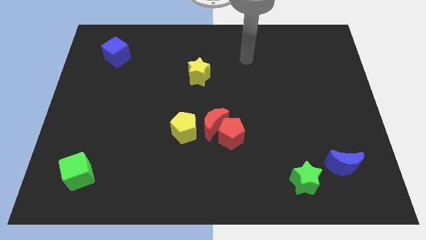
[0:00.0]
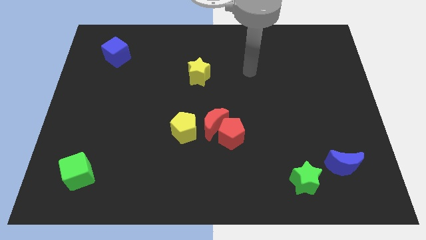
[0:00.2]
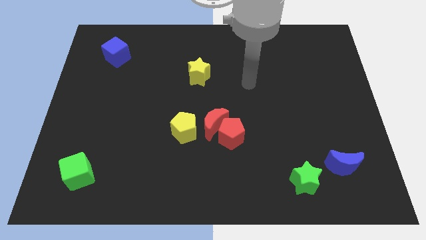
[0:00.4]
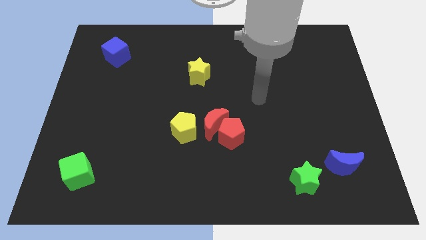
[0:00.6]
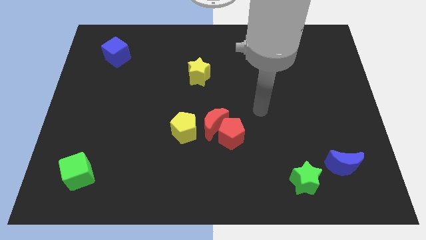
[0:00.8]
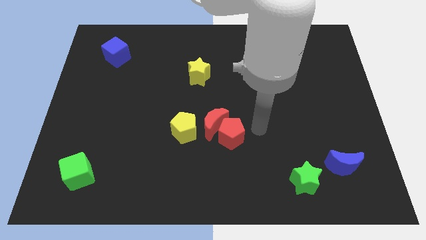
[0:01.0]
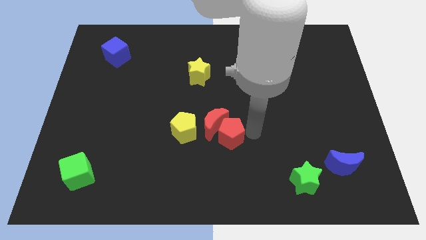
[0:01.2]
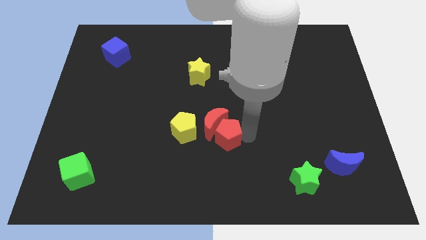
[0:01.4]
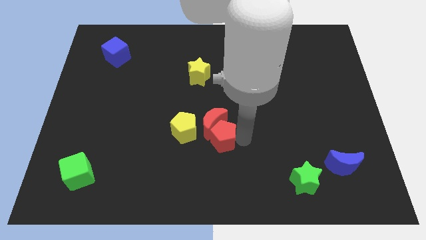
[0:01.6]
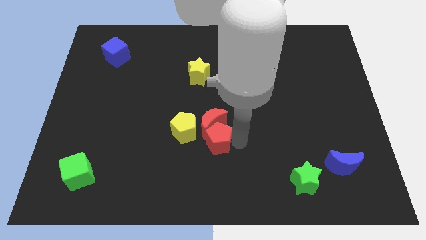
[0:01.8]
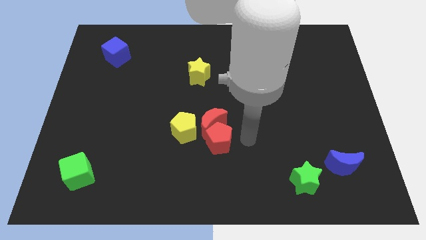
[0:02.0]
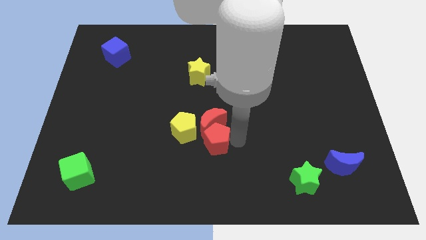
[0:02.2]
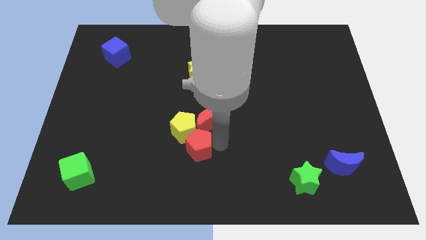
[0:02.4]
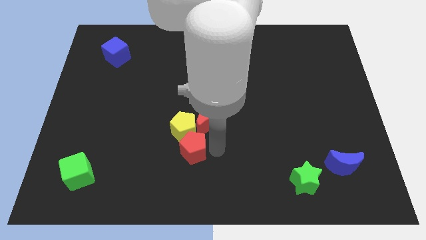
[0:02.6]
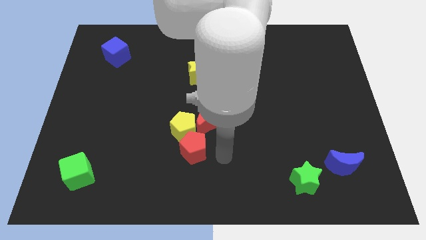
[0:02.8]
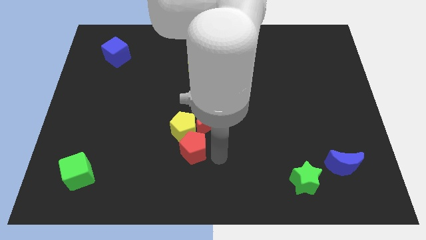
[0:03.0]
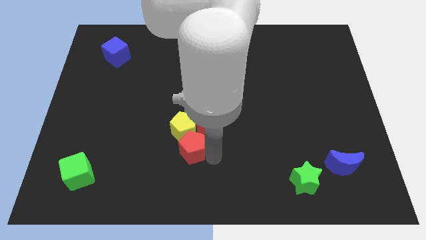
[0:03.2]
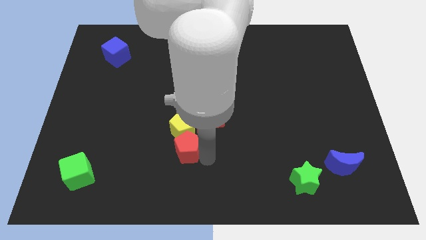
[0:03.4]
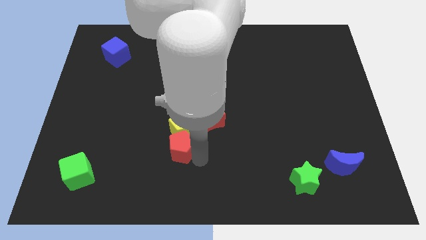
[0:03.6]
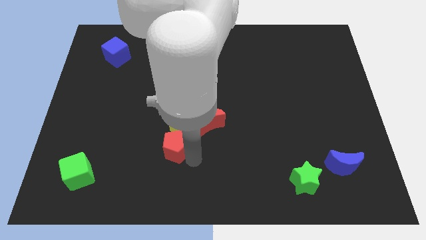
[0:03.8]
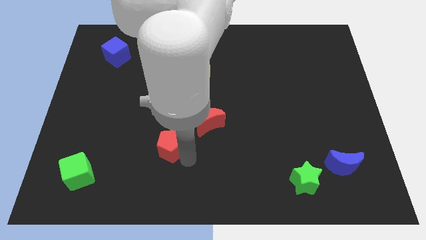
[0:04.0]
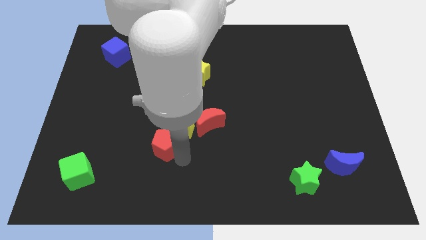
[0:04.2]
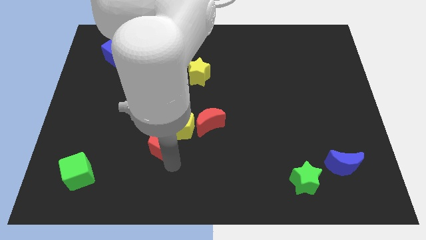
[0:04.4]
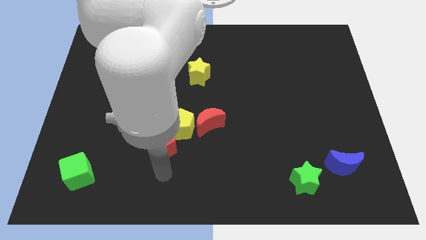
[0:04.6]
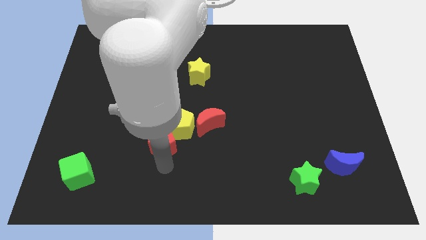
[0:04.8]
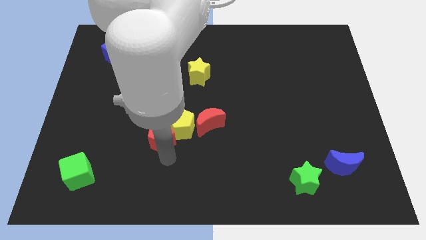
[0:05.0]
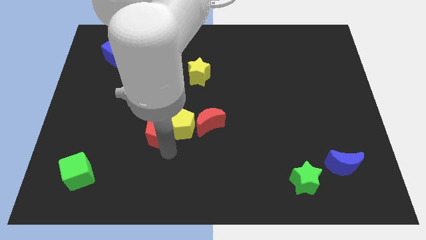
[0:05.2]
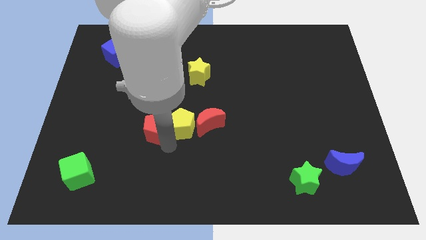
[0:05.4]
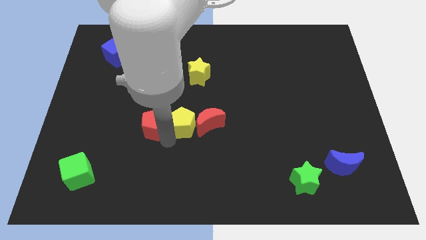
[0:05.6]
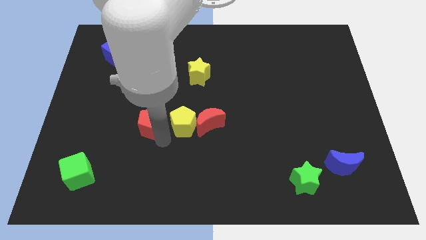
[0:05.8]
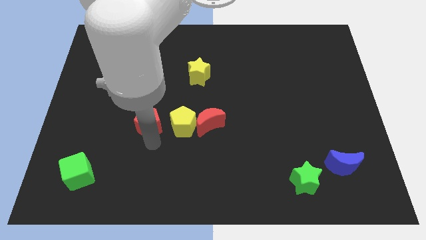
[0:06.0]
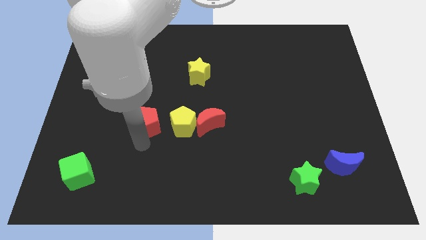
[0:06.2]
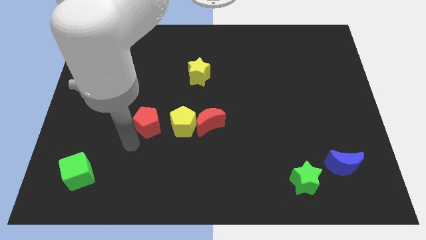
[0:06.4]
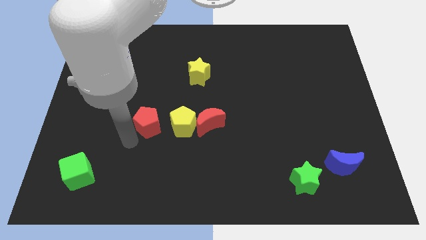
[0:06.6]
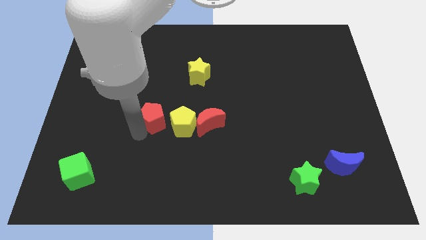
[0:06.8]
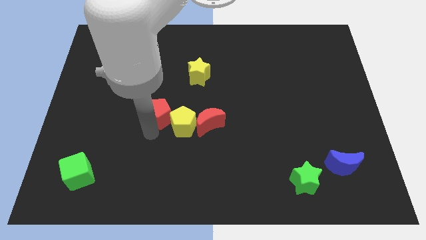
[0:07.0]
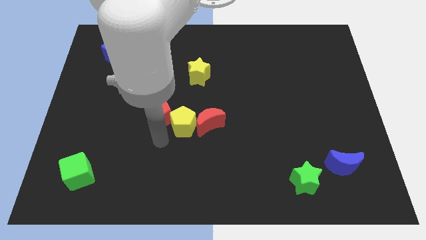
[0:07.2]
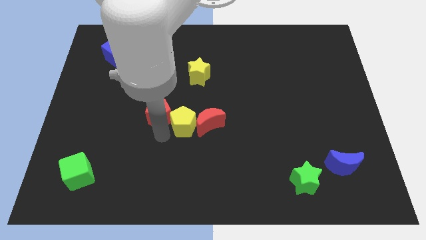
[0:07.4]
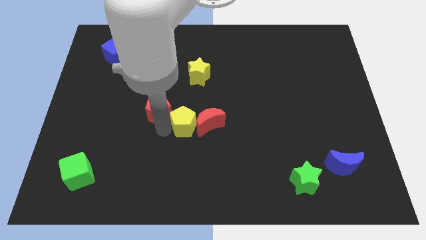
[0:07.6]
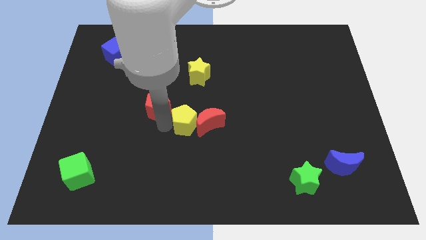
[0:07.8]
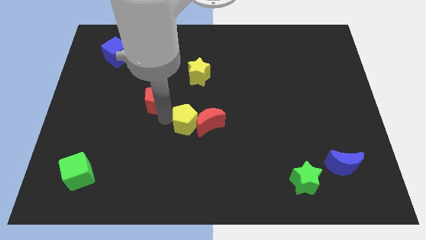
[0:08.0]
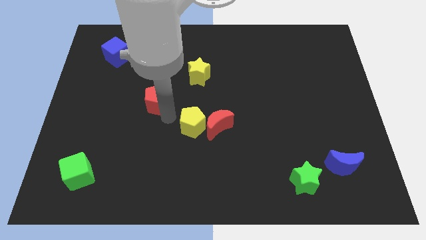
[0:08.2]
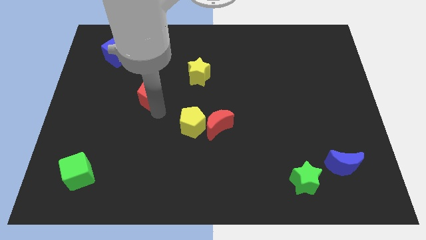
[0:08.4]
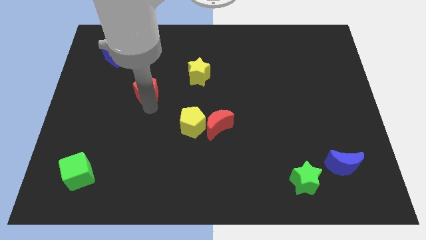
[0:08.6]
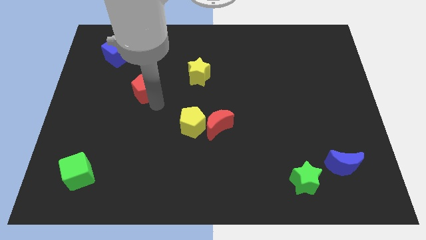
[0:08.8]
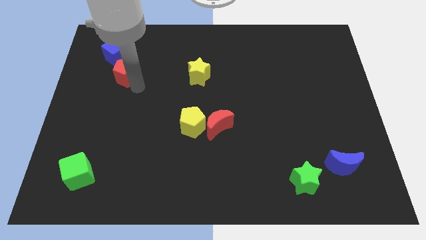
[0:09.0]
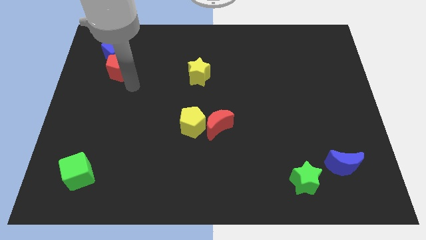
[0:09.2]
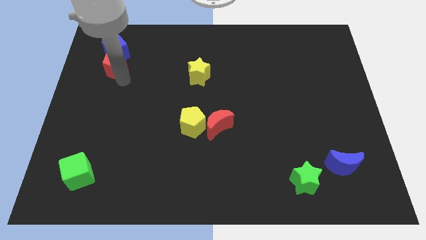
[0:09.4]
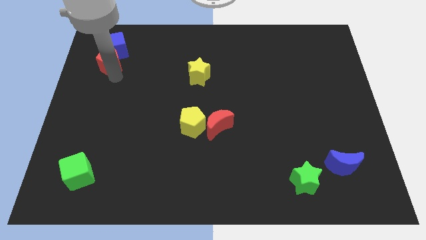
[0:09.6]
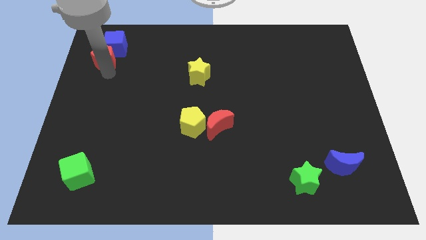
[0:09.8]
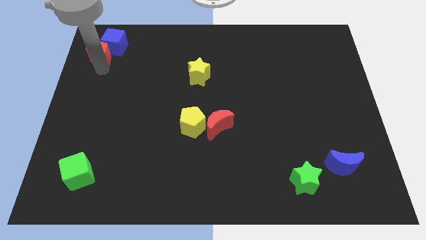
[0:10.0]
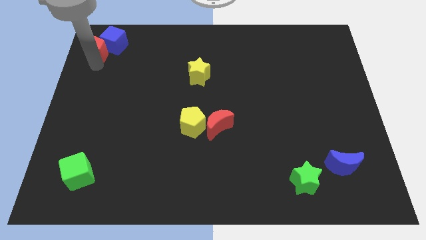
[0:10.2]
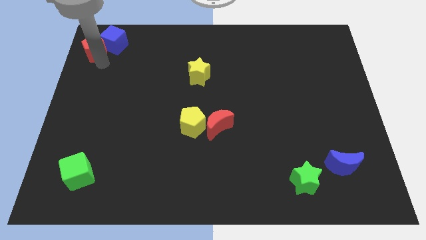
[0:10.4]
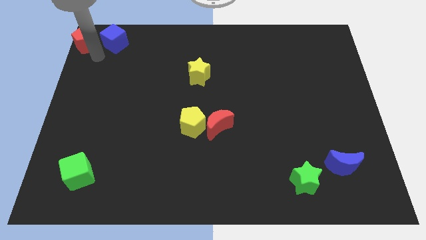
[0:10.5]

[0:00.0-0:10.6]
put the red pentagon to the top left of the board

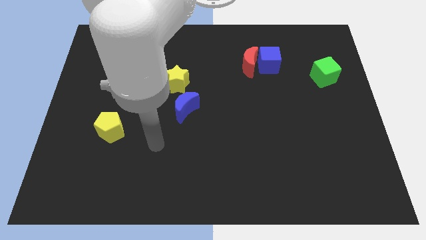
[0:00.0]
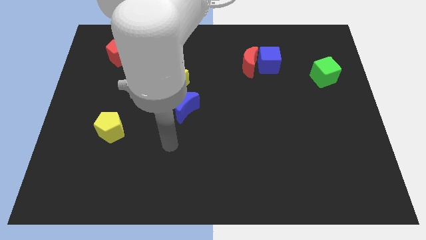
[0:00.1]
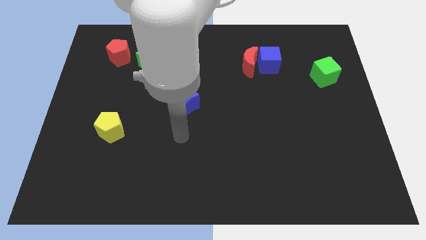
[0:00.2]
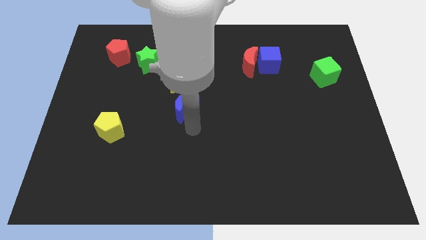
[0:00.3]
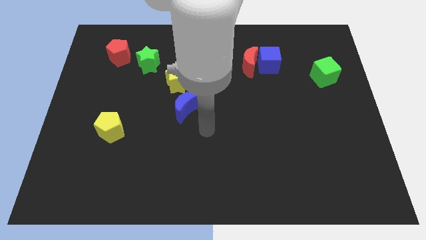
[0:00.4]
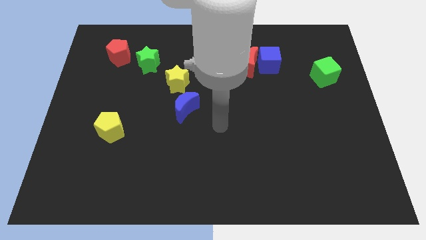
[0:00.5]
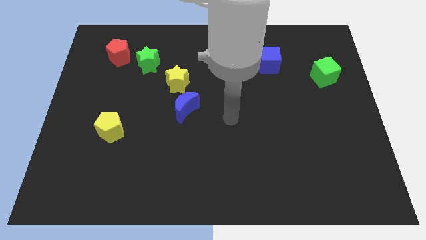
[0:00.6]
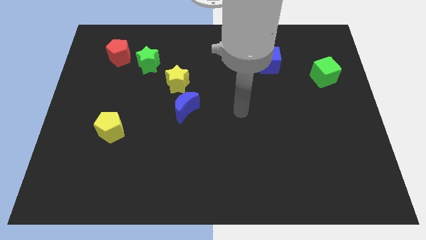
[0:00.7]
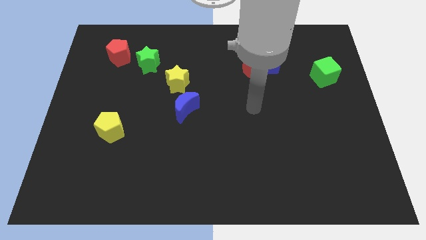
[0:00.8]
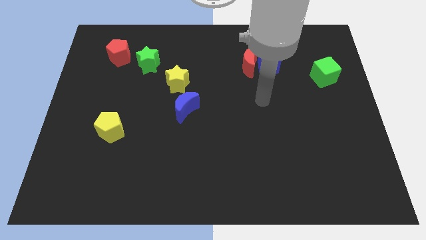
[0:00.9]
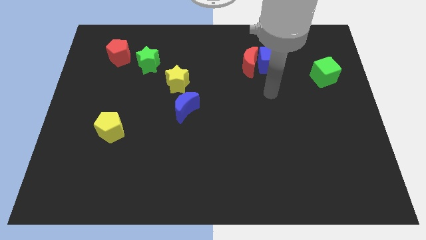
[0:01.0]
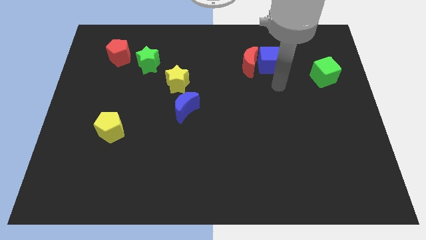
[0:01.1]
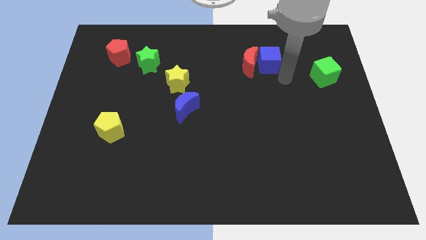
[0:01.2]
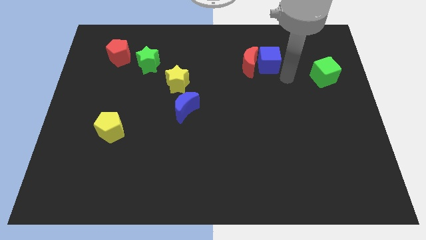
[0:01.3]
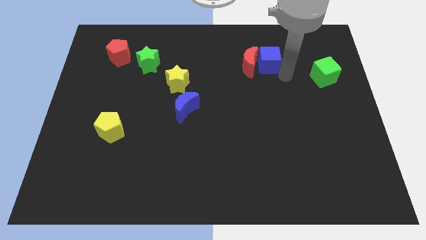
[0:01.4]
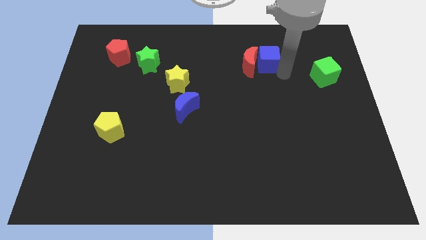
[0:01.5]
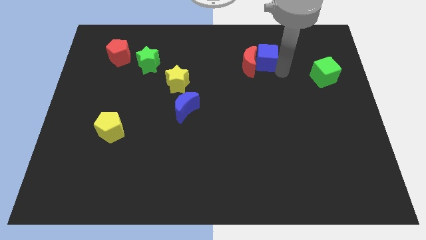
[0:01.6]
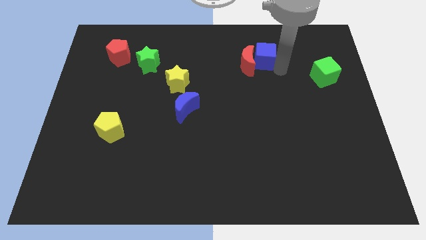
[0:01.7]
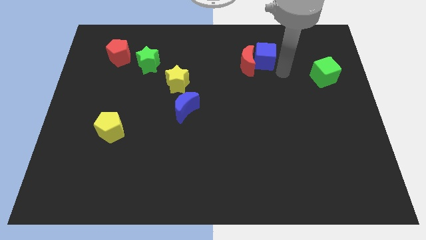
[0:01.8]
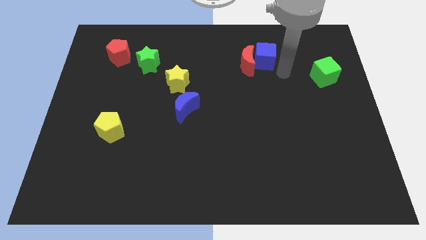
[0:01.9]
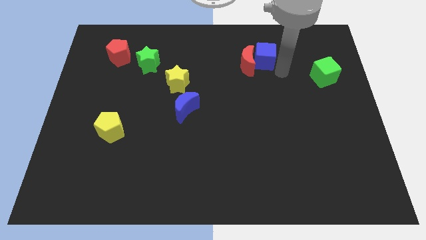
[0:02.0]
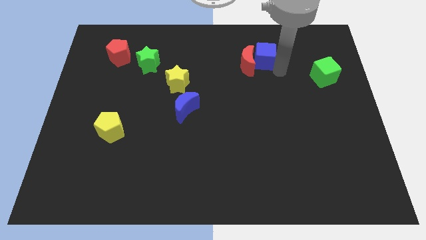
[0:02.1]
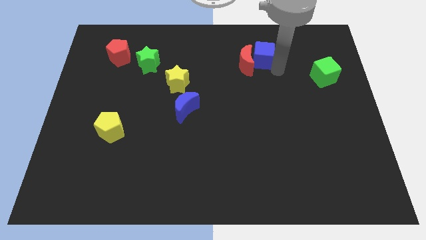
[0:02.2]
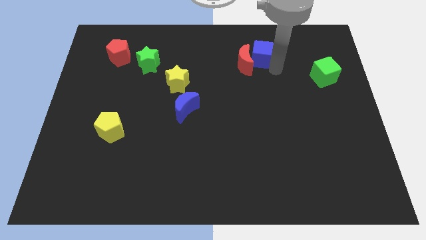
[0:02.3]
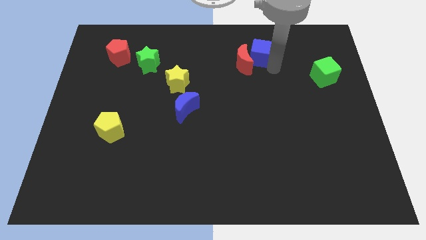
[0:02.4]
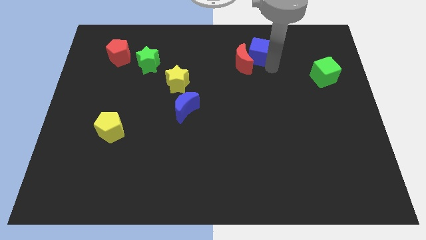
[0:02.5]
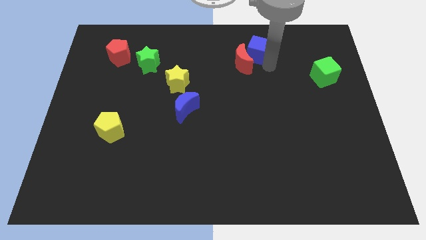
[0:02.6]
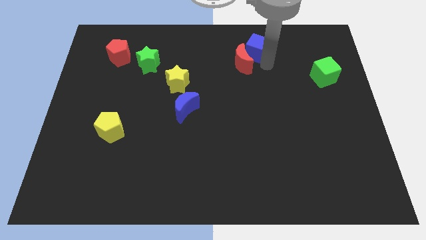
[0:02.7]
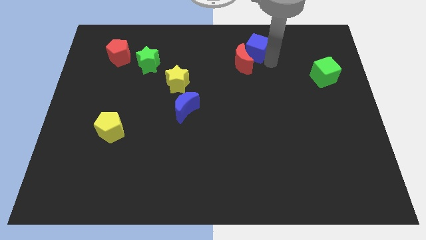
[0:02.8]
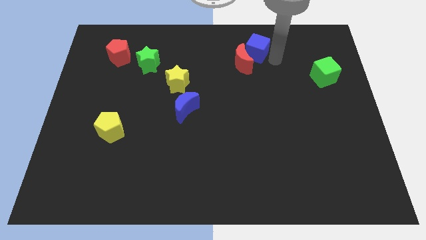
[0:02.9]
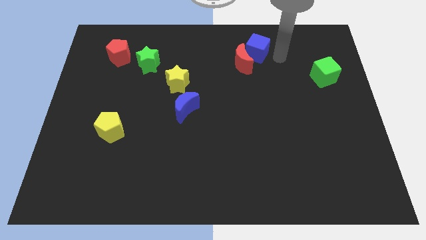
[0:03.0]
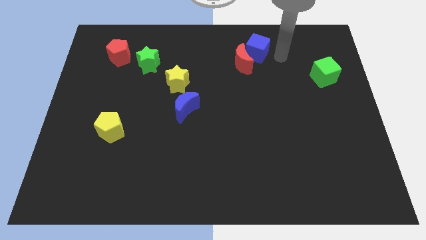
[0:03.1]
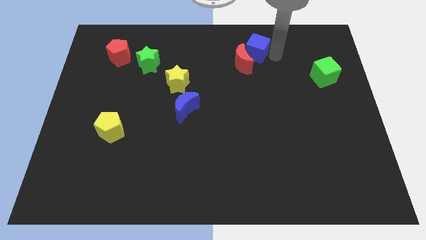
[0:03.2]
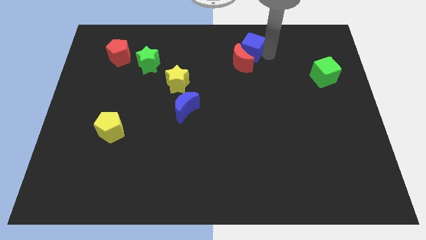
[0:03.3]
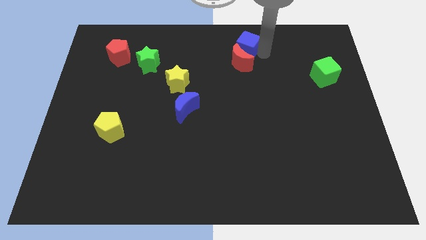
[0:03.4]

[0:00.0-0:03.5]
push the blue cube to the top
